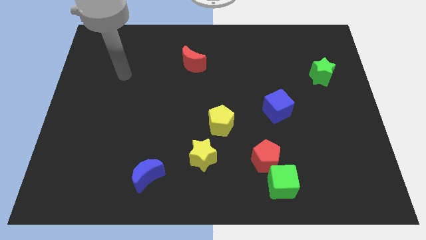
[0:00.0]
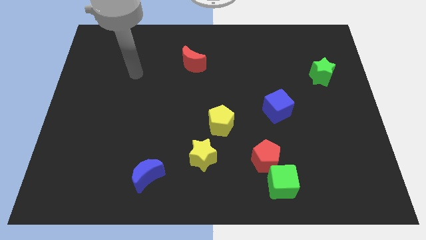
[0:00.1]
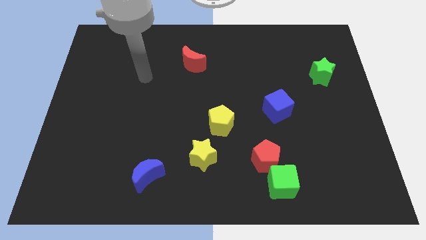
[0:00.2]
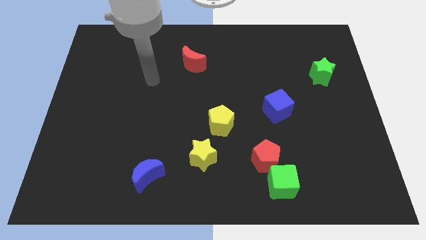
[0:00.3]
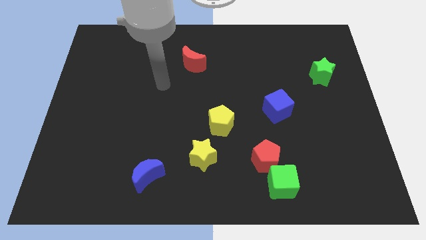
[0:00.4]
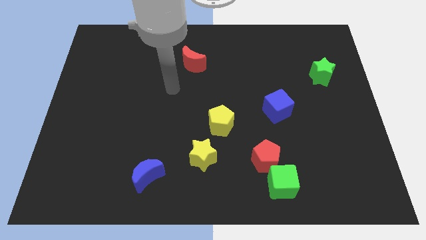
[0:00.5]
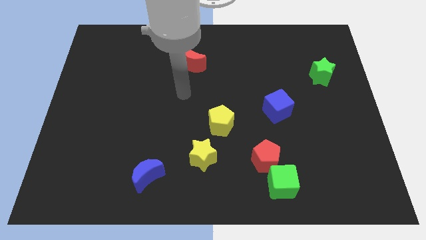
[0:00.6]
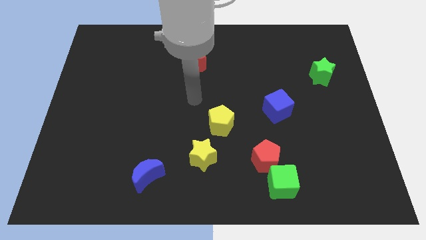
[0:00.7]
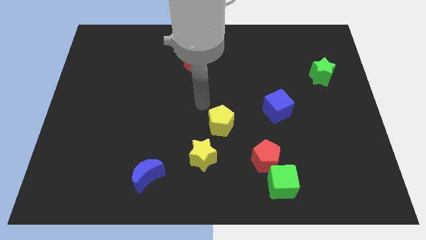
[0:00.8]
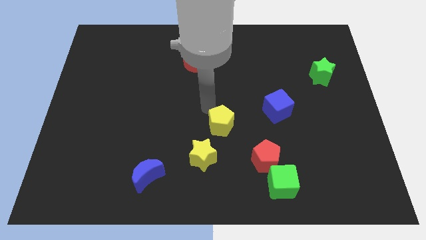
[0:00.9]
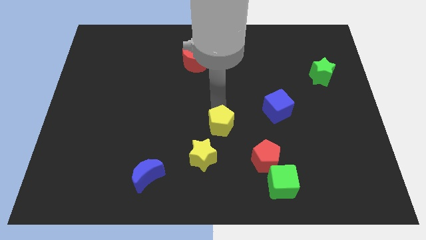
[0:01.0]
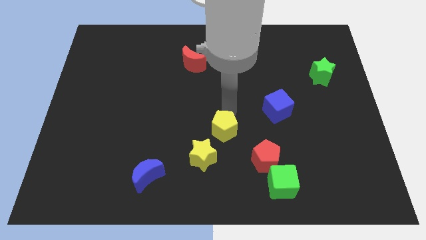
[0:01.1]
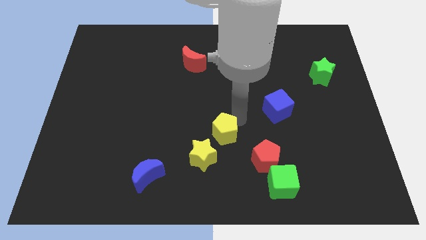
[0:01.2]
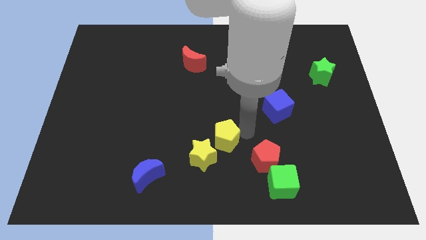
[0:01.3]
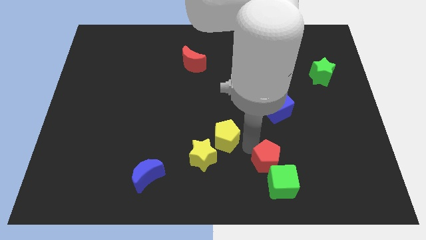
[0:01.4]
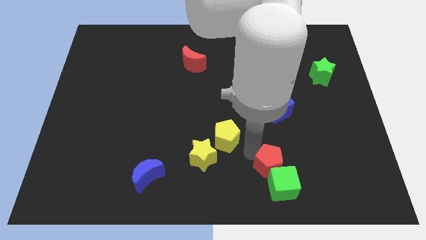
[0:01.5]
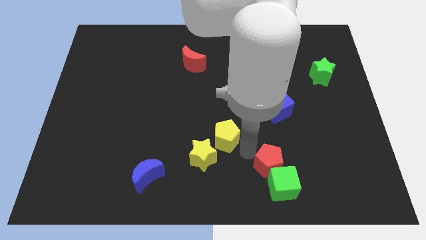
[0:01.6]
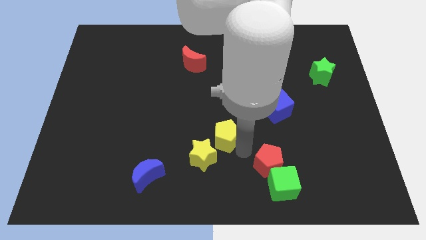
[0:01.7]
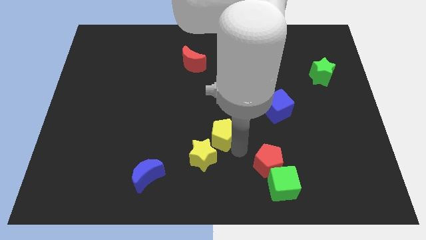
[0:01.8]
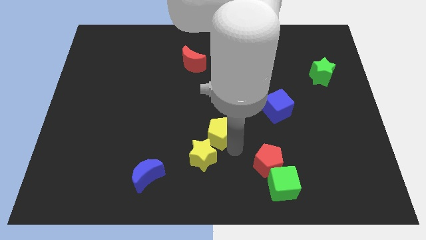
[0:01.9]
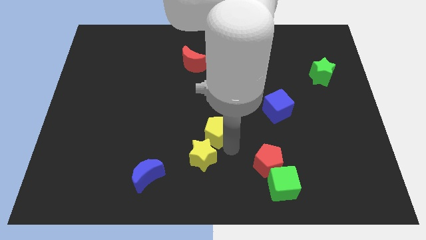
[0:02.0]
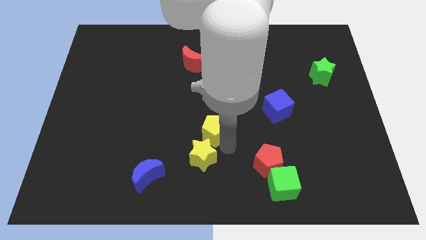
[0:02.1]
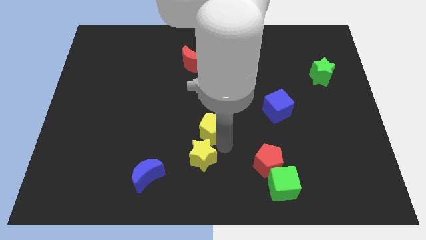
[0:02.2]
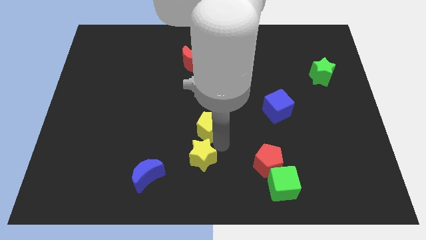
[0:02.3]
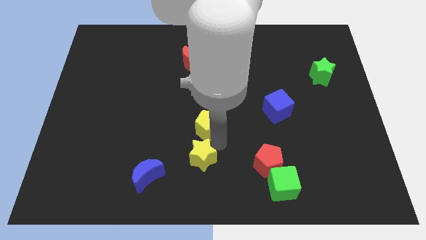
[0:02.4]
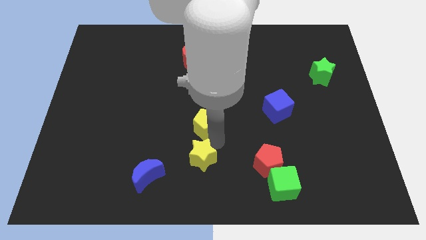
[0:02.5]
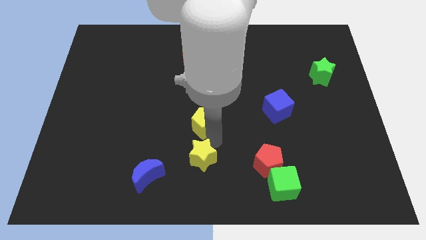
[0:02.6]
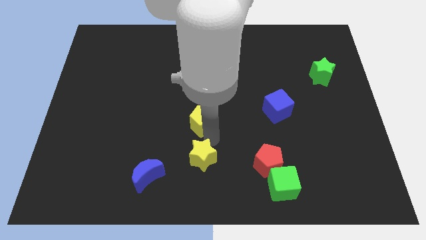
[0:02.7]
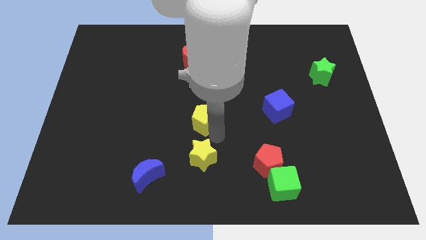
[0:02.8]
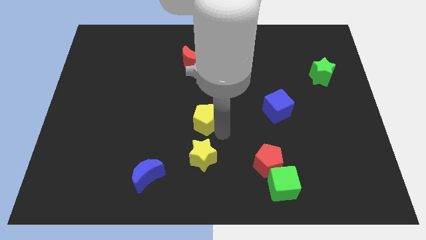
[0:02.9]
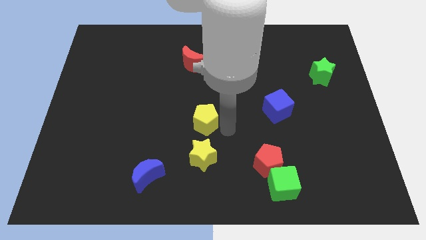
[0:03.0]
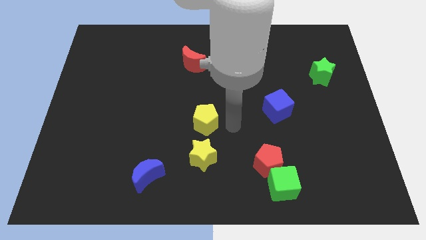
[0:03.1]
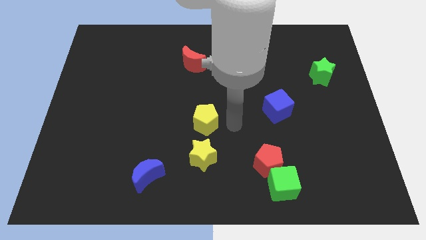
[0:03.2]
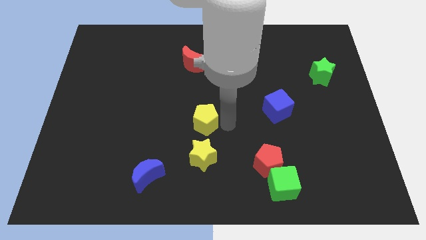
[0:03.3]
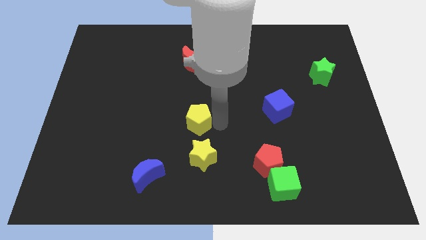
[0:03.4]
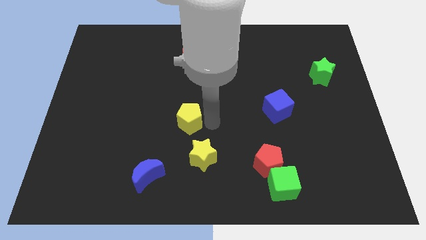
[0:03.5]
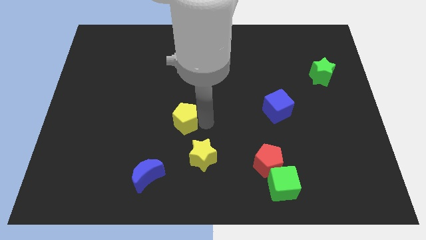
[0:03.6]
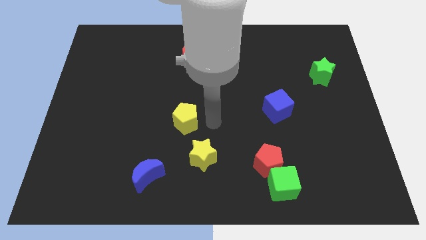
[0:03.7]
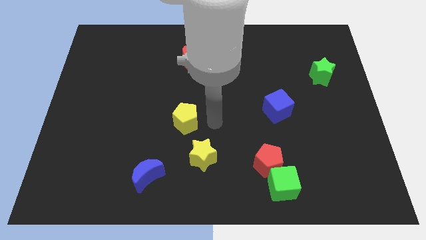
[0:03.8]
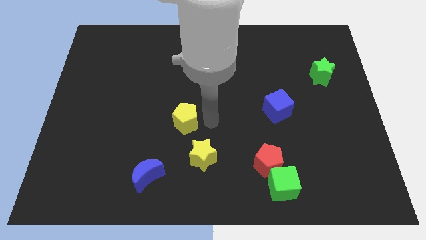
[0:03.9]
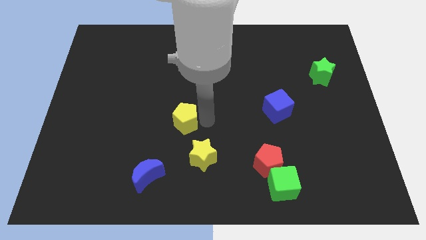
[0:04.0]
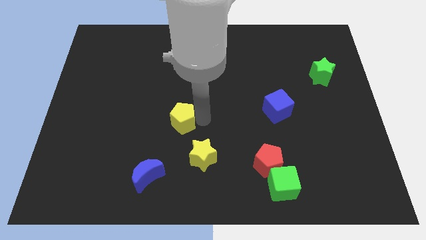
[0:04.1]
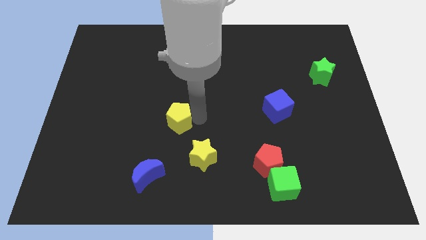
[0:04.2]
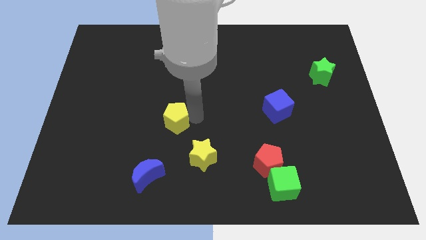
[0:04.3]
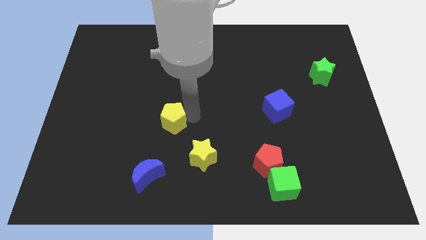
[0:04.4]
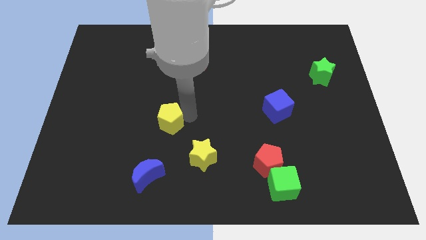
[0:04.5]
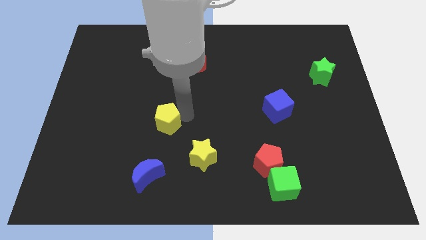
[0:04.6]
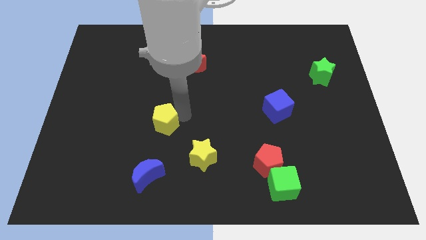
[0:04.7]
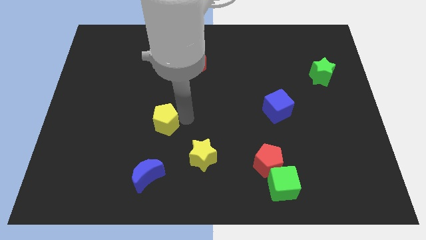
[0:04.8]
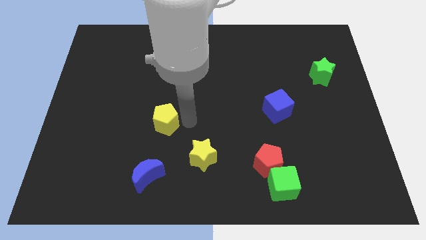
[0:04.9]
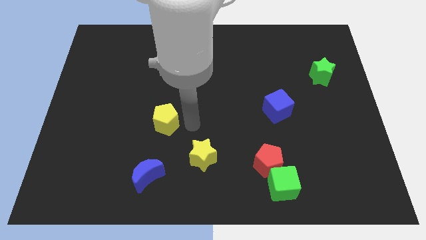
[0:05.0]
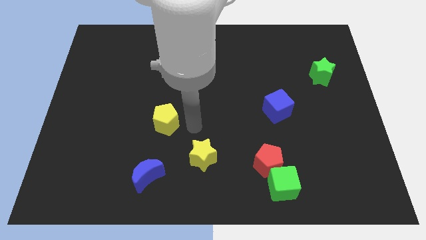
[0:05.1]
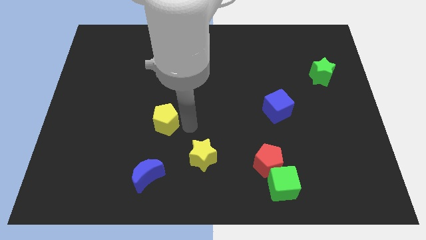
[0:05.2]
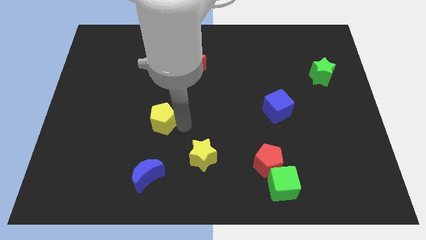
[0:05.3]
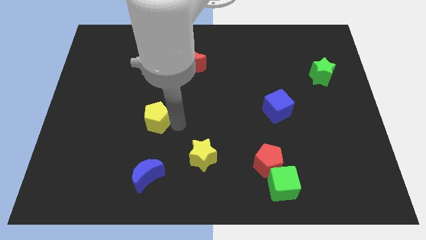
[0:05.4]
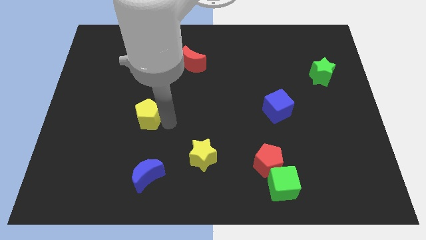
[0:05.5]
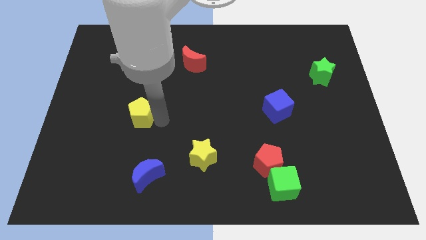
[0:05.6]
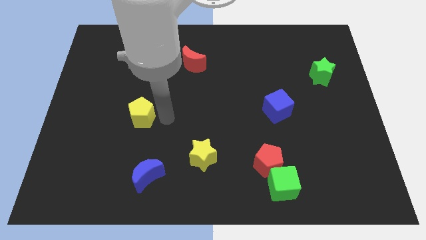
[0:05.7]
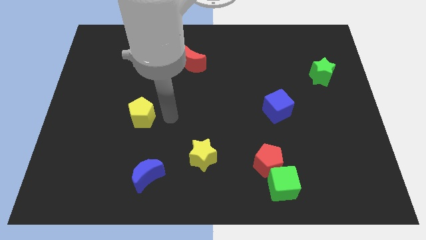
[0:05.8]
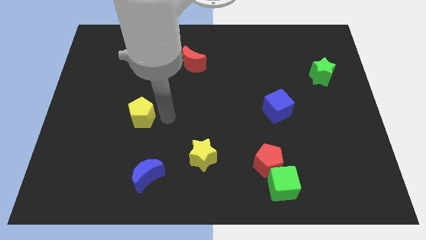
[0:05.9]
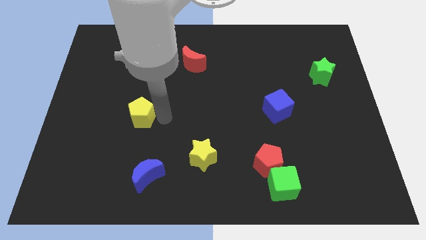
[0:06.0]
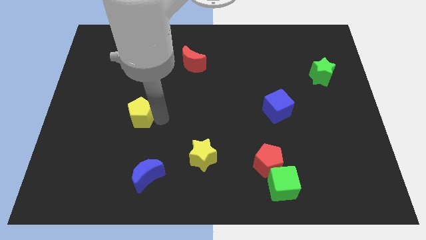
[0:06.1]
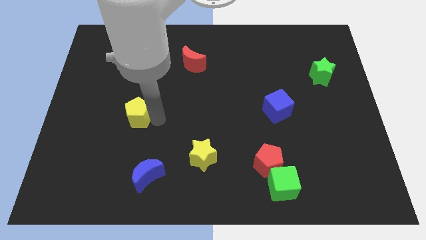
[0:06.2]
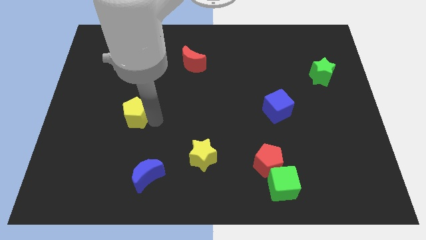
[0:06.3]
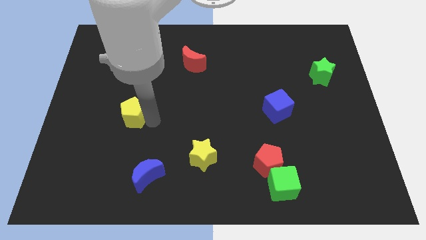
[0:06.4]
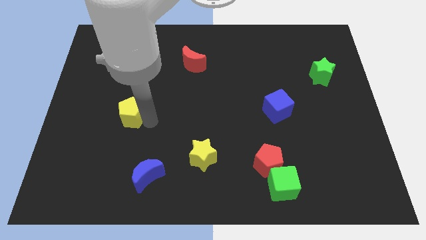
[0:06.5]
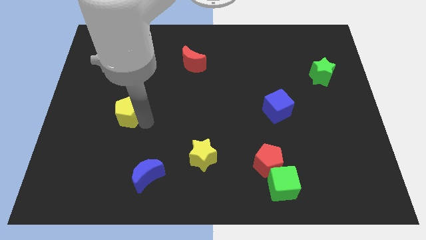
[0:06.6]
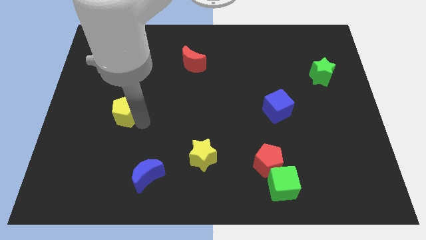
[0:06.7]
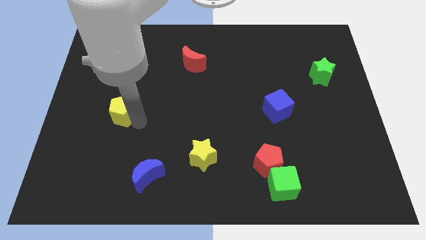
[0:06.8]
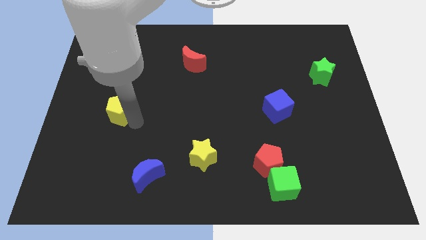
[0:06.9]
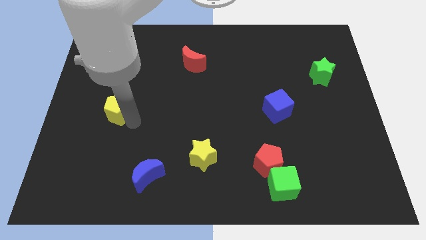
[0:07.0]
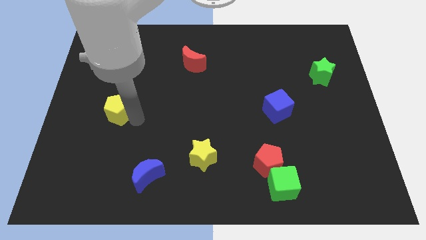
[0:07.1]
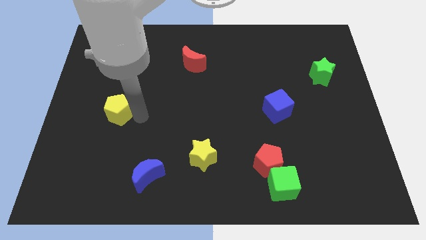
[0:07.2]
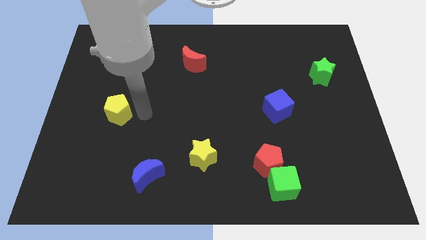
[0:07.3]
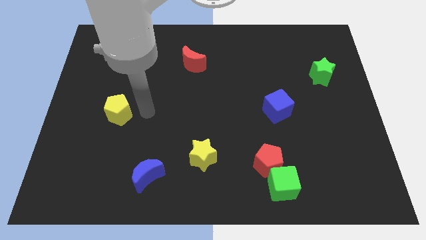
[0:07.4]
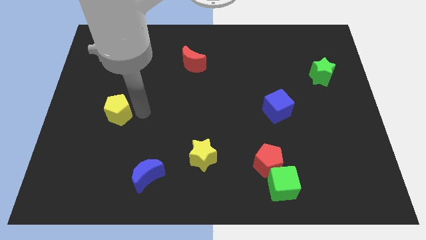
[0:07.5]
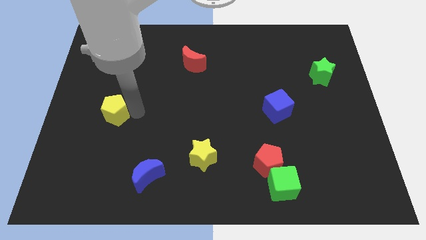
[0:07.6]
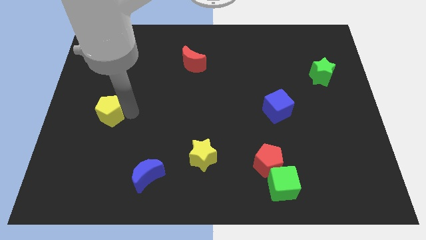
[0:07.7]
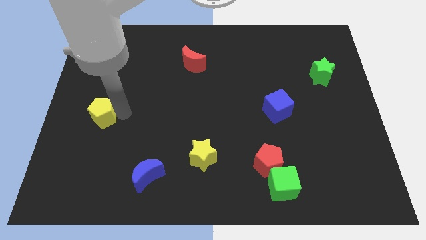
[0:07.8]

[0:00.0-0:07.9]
move the yellow pentagon to the left side
